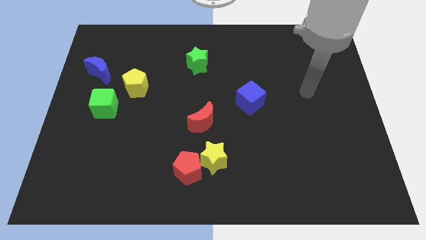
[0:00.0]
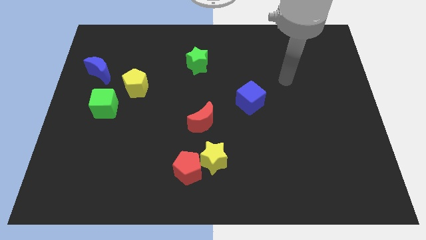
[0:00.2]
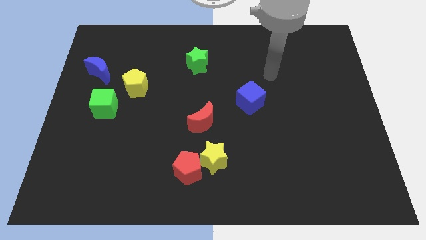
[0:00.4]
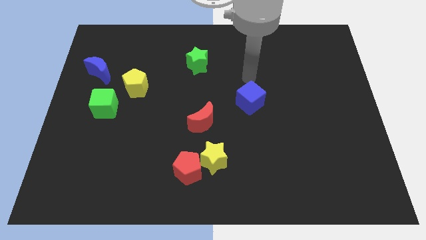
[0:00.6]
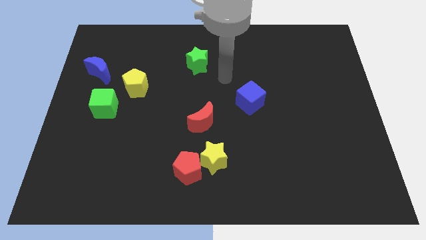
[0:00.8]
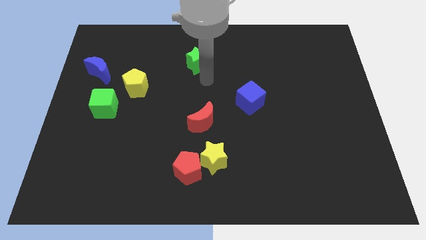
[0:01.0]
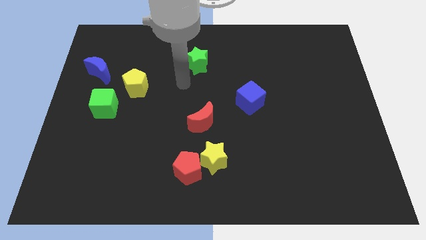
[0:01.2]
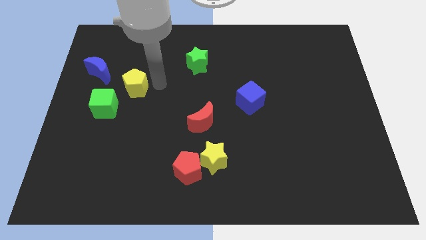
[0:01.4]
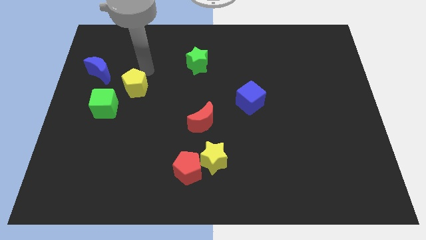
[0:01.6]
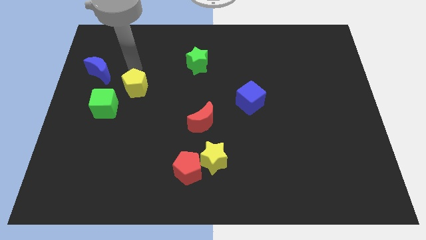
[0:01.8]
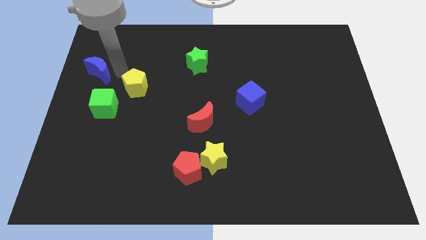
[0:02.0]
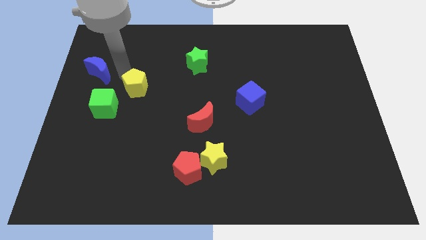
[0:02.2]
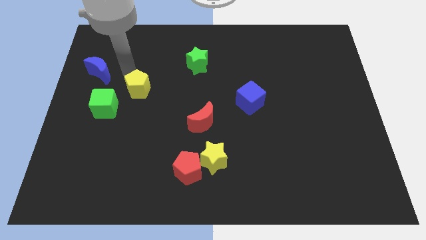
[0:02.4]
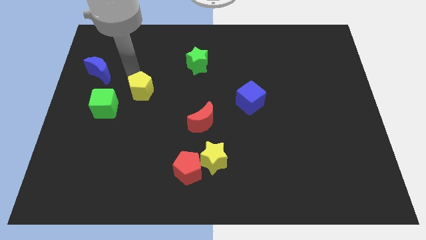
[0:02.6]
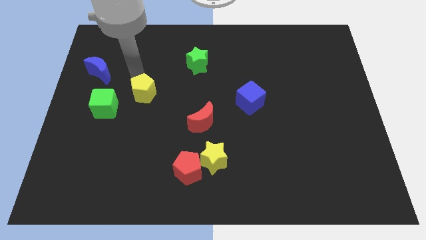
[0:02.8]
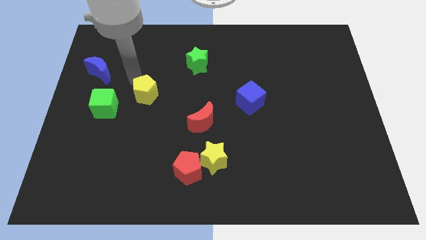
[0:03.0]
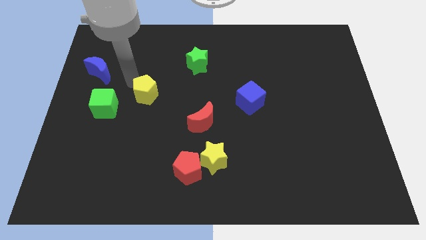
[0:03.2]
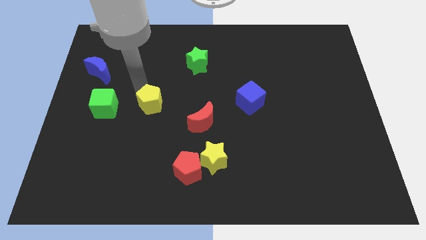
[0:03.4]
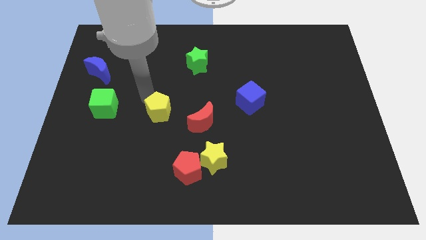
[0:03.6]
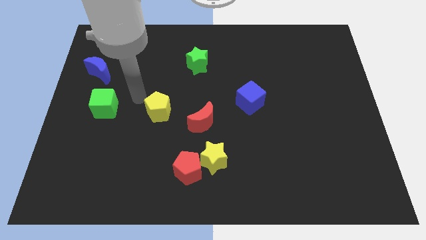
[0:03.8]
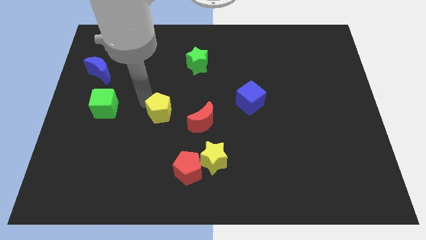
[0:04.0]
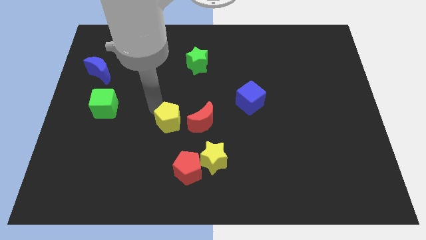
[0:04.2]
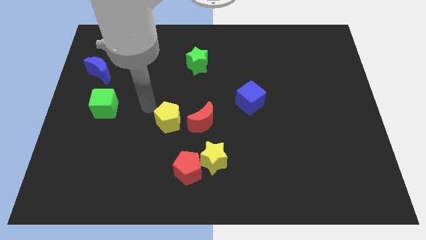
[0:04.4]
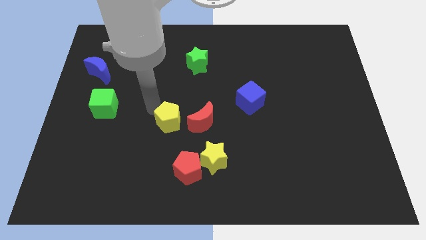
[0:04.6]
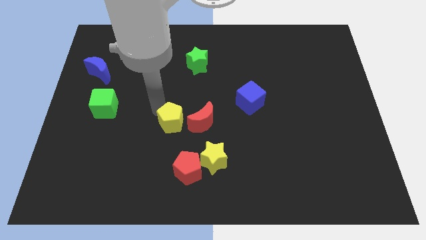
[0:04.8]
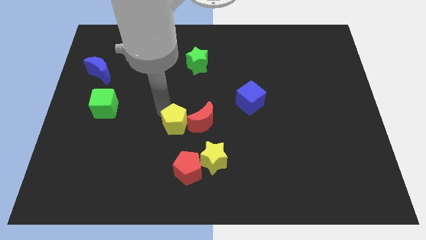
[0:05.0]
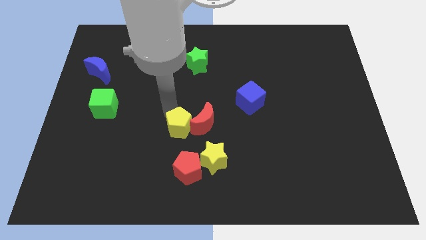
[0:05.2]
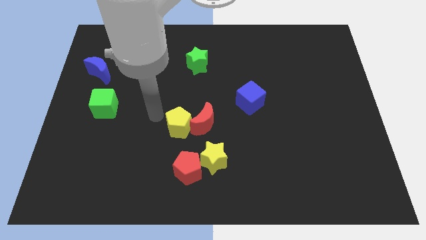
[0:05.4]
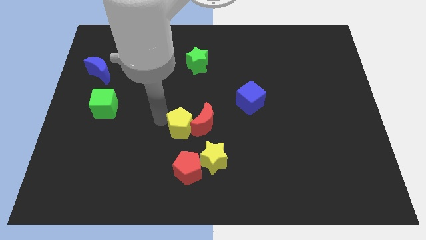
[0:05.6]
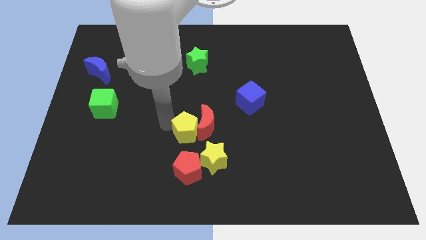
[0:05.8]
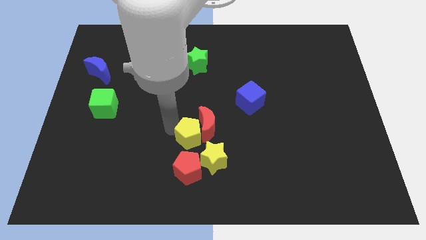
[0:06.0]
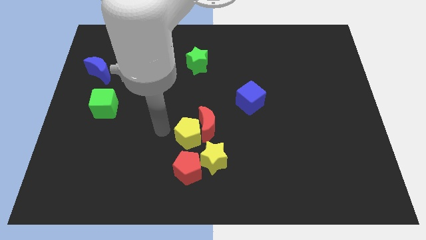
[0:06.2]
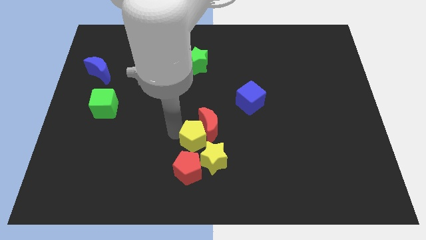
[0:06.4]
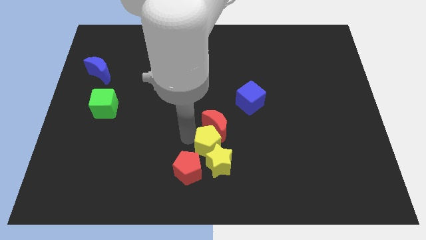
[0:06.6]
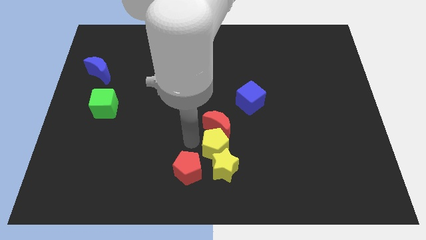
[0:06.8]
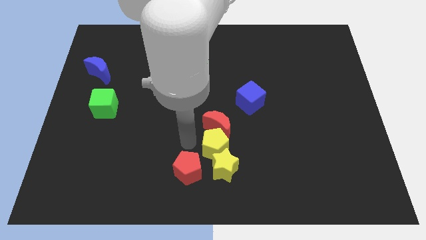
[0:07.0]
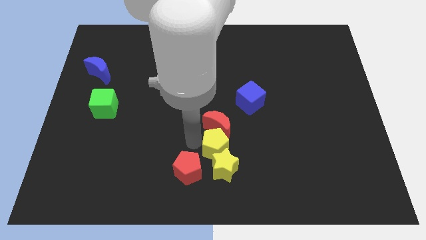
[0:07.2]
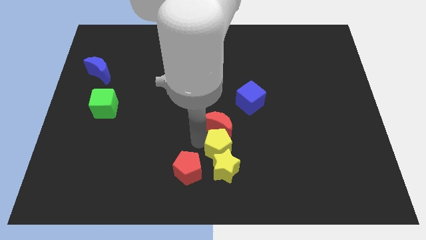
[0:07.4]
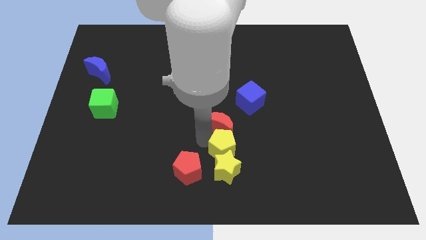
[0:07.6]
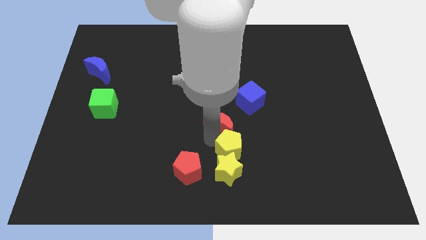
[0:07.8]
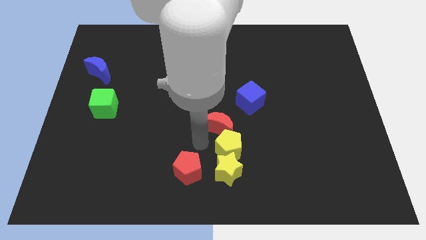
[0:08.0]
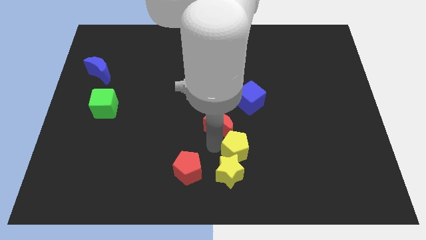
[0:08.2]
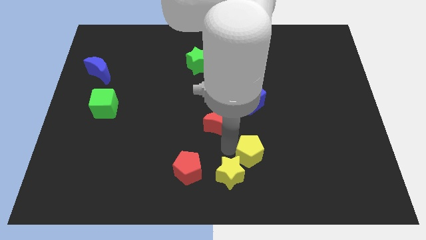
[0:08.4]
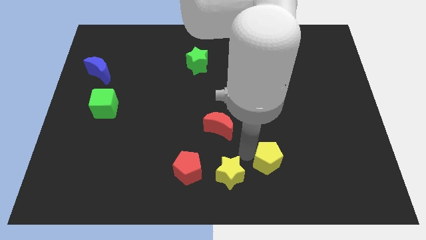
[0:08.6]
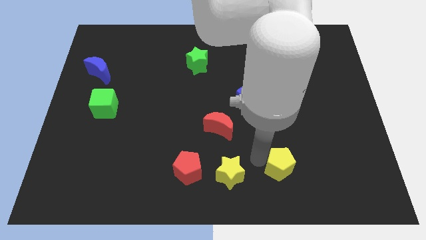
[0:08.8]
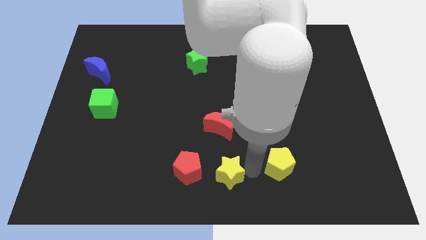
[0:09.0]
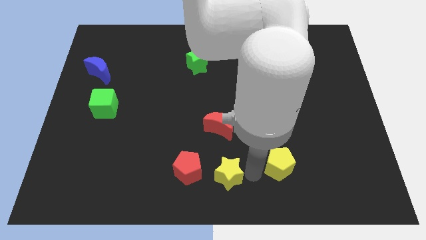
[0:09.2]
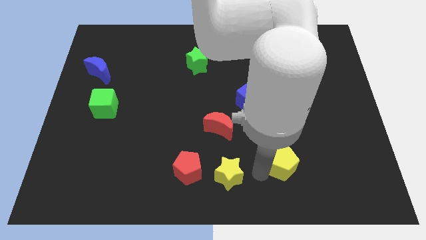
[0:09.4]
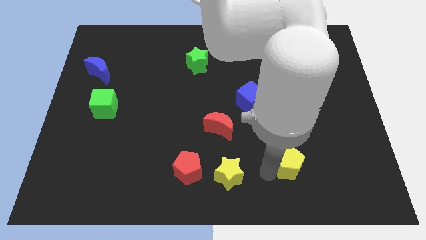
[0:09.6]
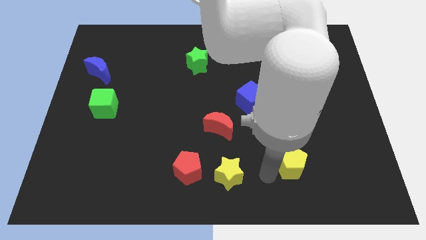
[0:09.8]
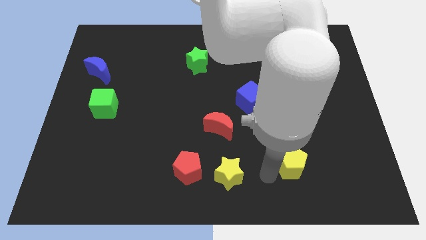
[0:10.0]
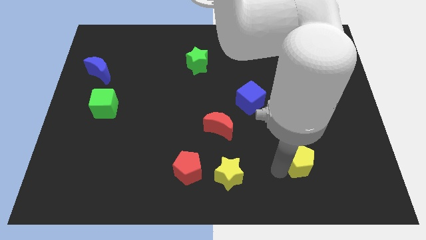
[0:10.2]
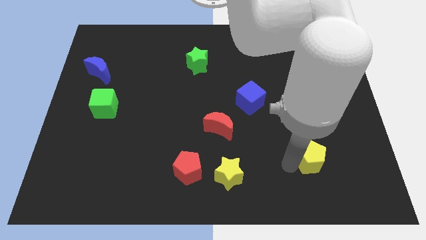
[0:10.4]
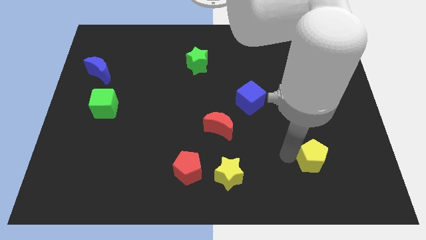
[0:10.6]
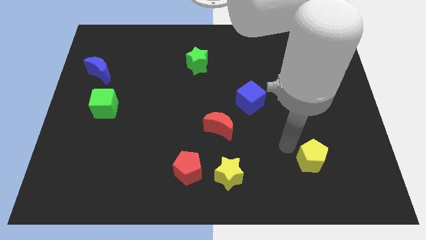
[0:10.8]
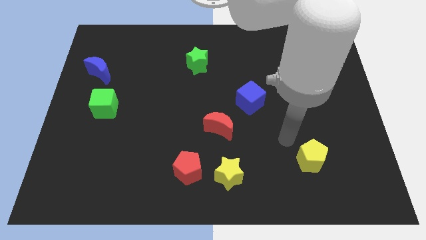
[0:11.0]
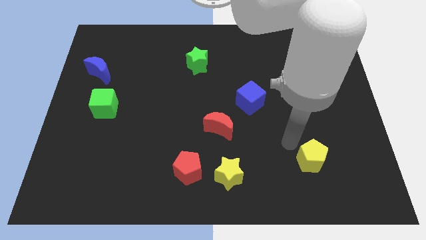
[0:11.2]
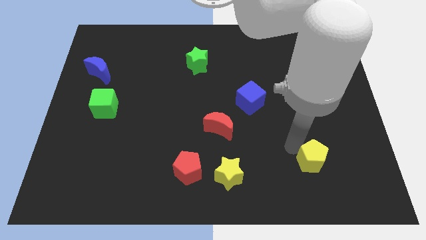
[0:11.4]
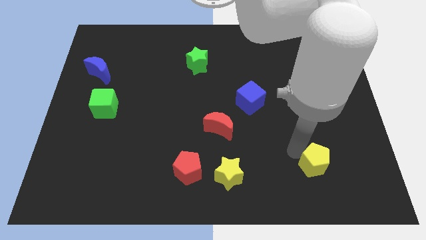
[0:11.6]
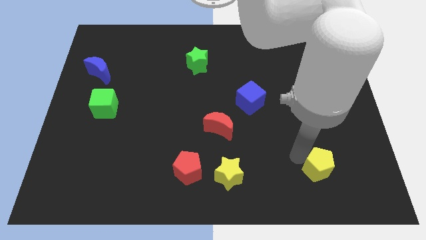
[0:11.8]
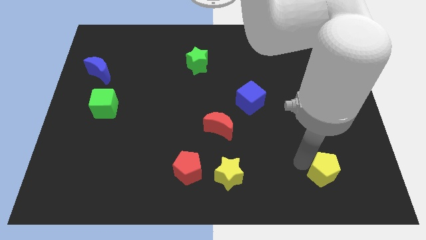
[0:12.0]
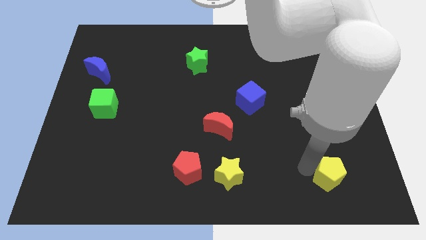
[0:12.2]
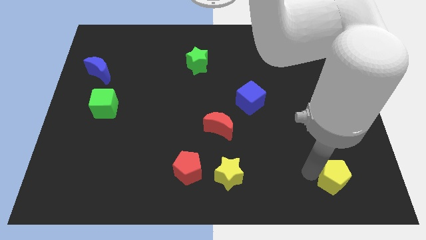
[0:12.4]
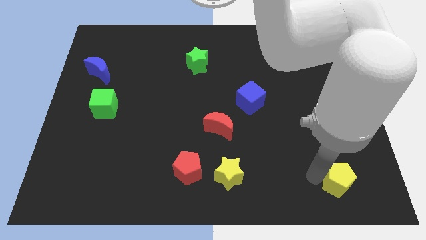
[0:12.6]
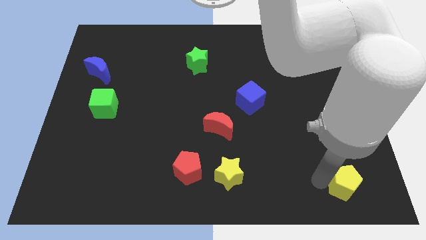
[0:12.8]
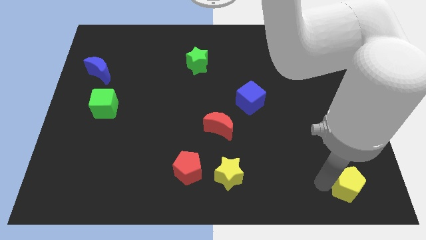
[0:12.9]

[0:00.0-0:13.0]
put the yellow pentagon to the bottom right corner

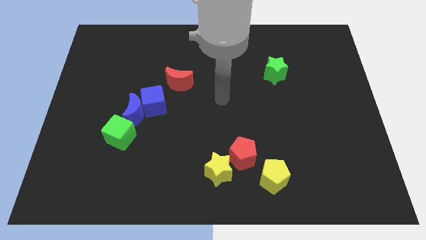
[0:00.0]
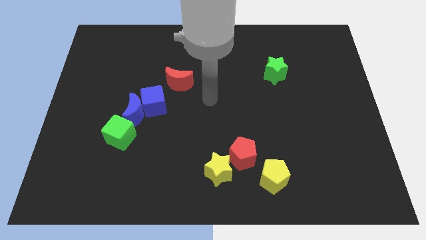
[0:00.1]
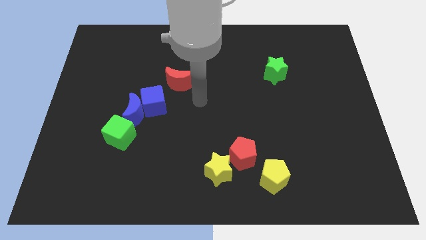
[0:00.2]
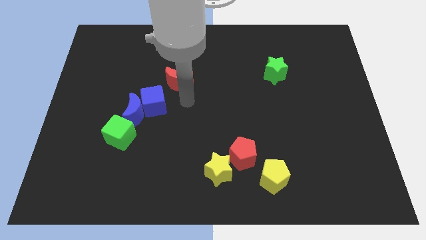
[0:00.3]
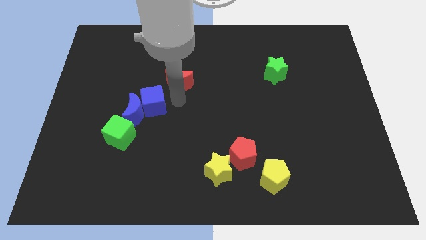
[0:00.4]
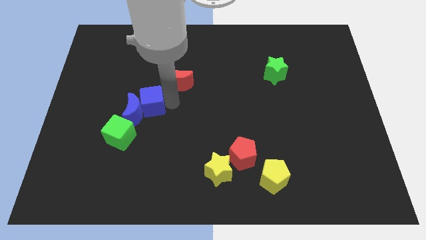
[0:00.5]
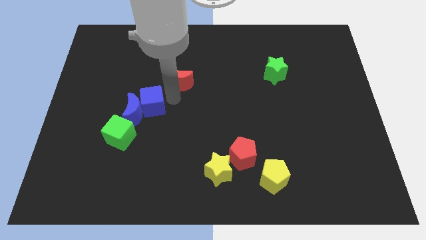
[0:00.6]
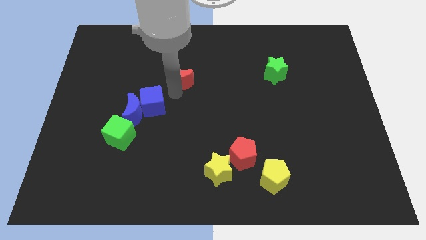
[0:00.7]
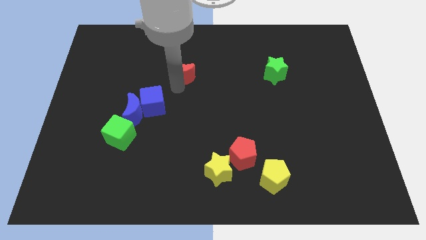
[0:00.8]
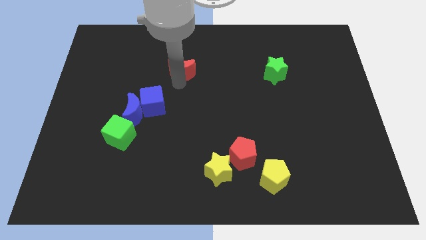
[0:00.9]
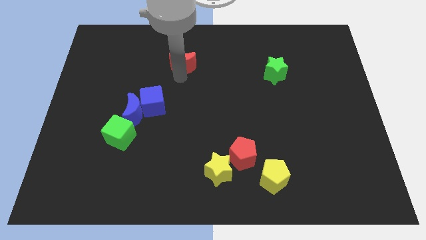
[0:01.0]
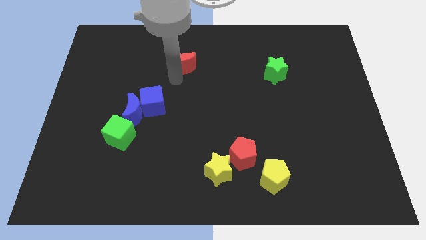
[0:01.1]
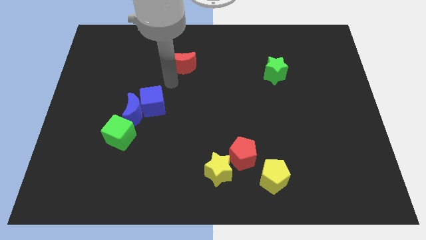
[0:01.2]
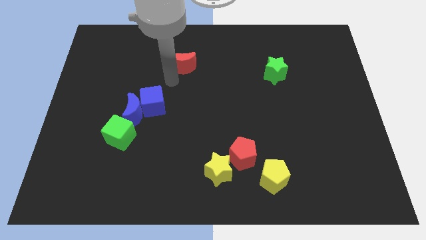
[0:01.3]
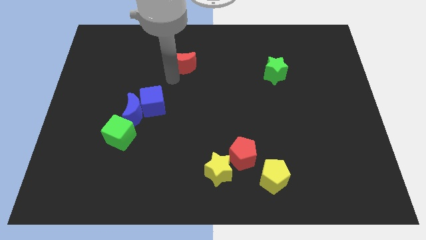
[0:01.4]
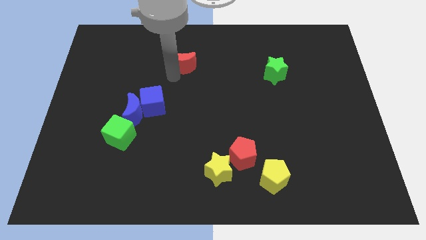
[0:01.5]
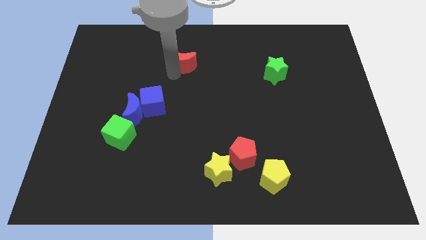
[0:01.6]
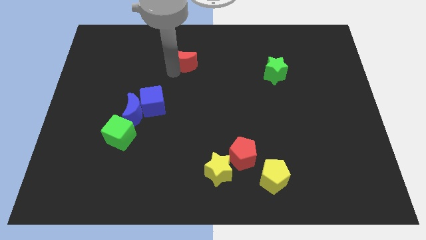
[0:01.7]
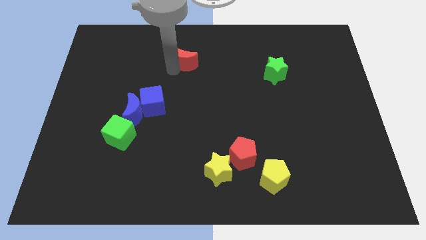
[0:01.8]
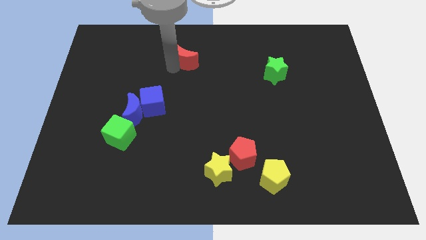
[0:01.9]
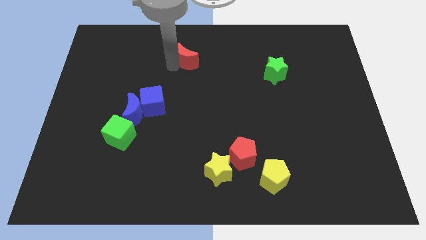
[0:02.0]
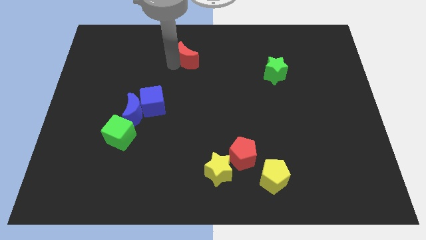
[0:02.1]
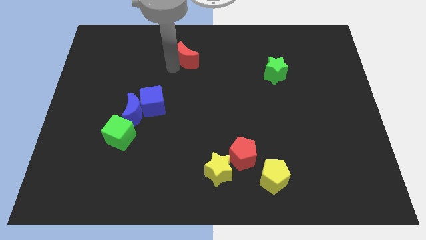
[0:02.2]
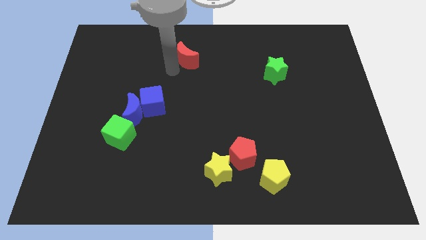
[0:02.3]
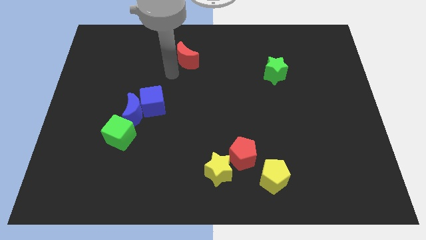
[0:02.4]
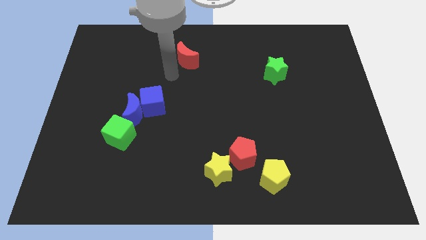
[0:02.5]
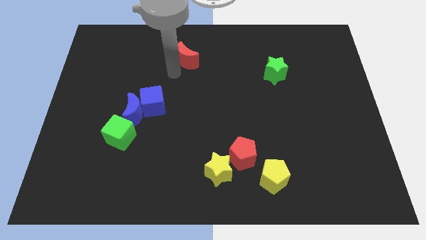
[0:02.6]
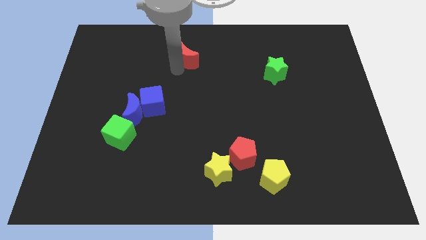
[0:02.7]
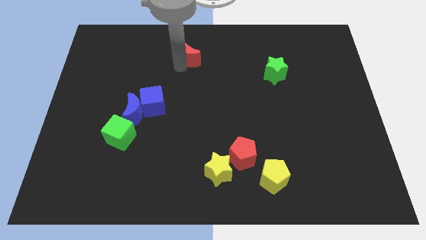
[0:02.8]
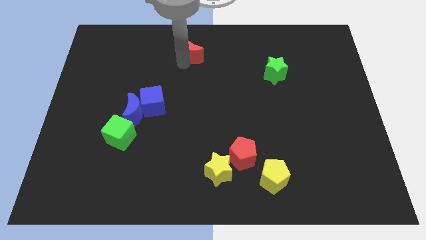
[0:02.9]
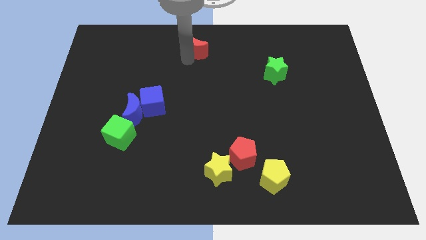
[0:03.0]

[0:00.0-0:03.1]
slide the red moon to the towards your base
